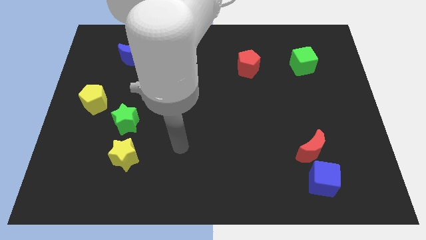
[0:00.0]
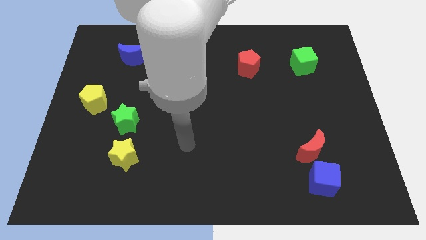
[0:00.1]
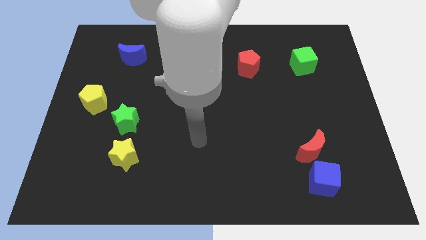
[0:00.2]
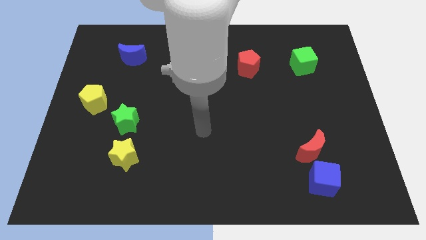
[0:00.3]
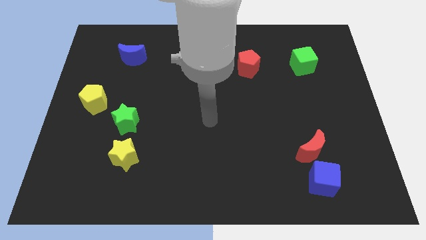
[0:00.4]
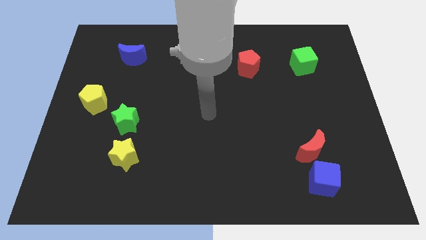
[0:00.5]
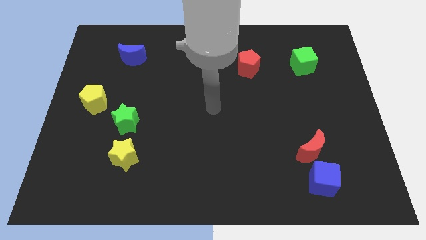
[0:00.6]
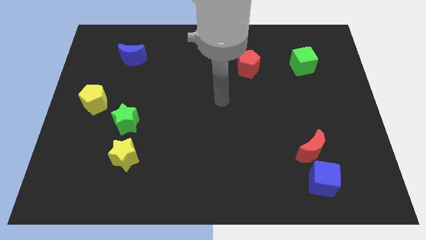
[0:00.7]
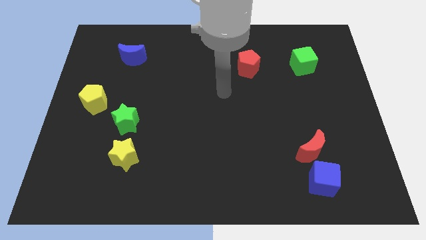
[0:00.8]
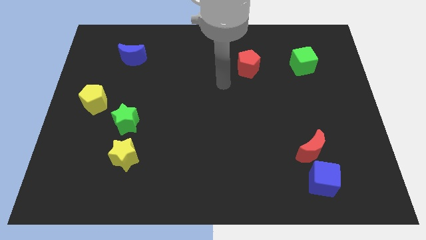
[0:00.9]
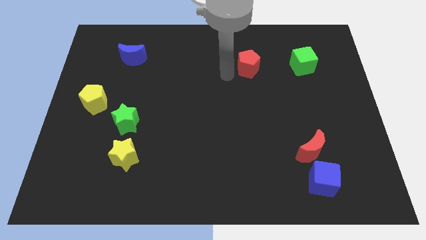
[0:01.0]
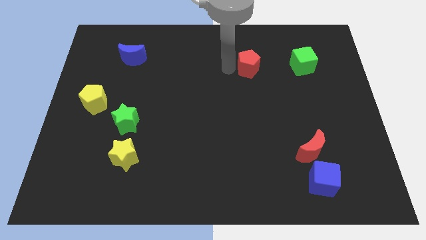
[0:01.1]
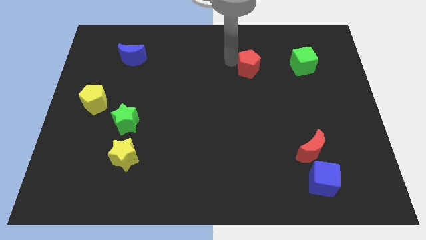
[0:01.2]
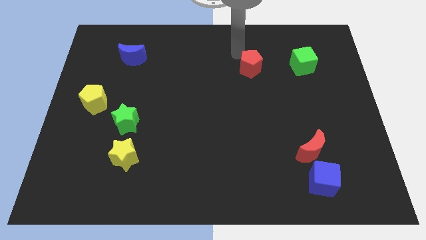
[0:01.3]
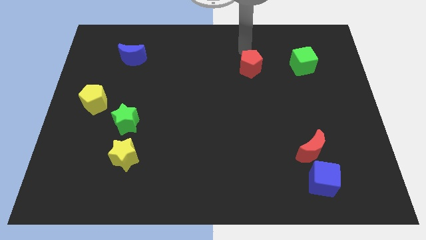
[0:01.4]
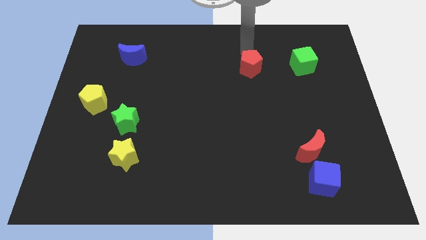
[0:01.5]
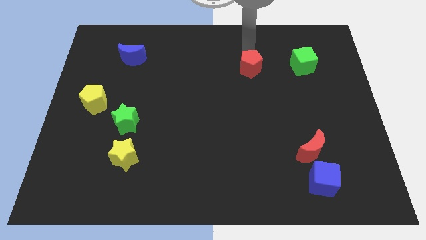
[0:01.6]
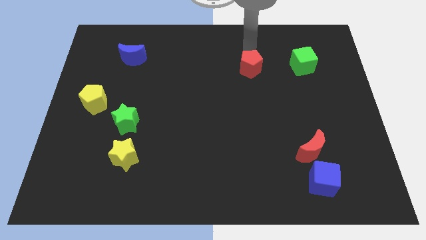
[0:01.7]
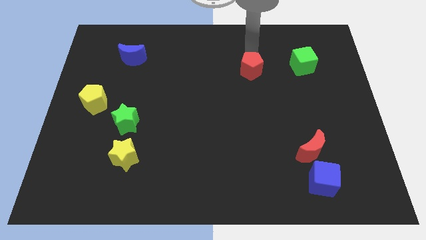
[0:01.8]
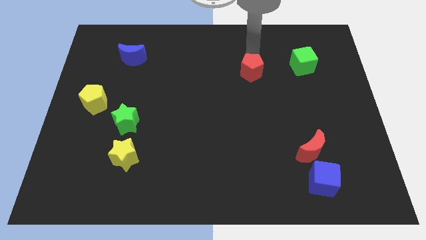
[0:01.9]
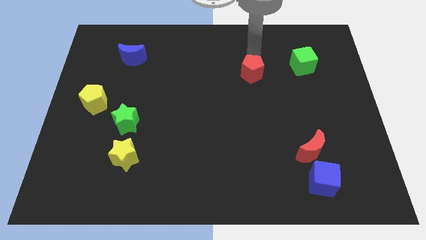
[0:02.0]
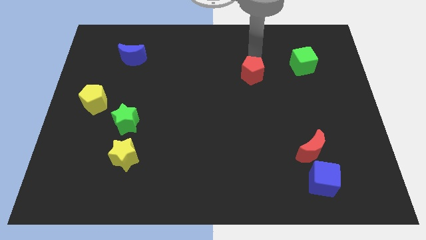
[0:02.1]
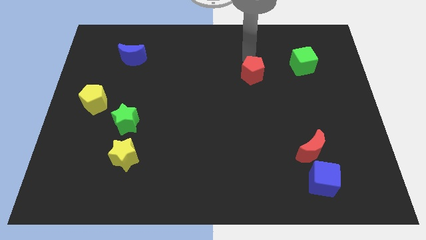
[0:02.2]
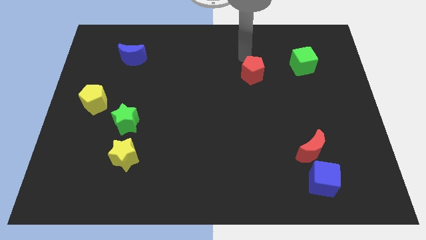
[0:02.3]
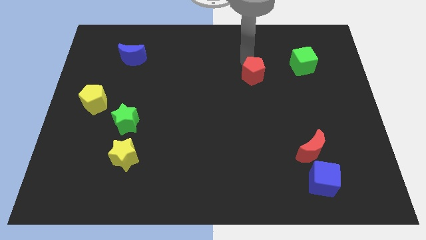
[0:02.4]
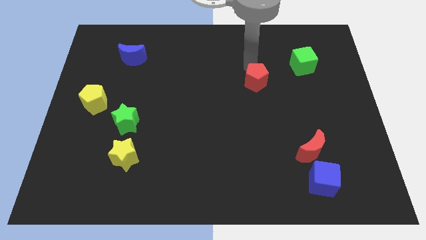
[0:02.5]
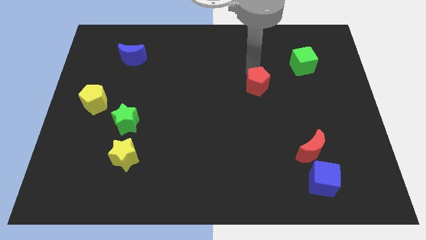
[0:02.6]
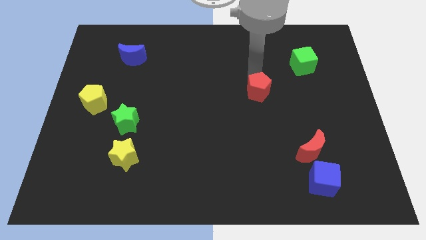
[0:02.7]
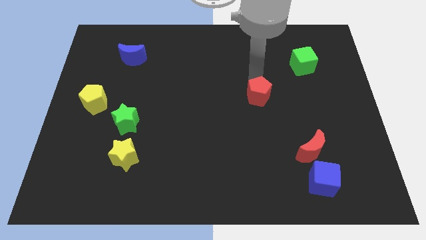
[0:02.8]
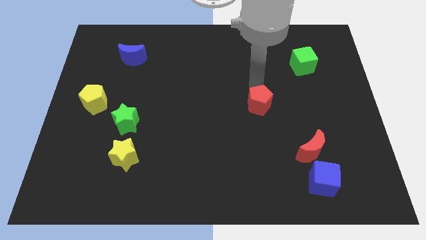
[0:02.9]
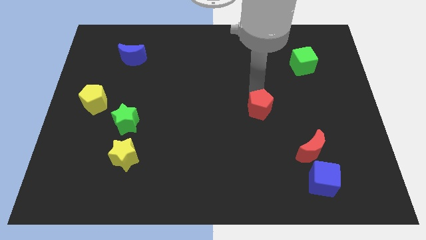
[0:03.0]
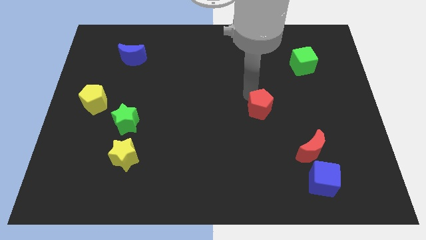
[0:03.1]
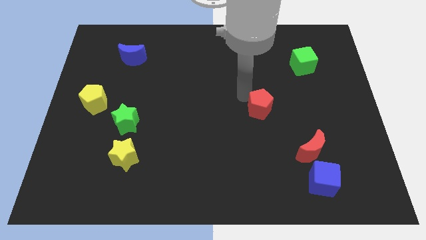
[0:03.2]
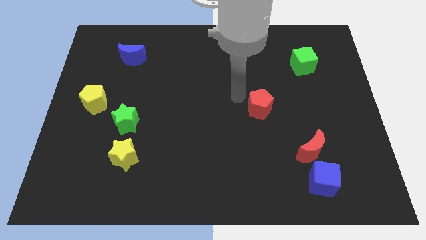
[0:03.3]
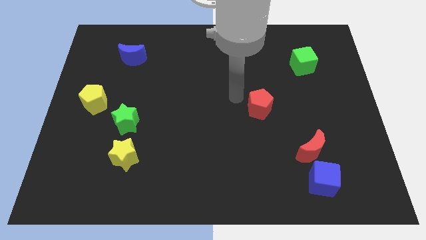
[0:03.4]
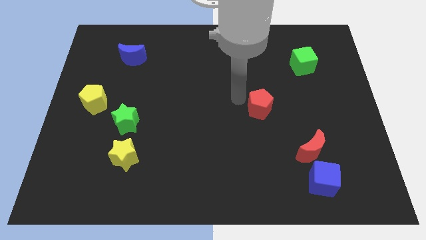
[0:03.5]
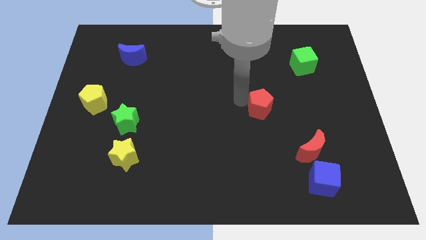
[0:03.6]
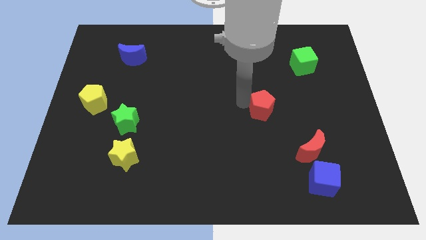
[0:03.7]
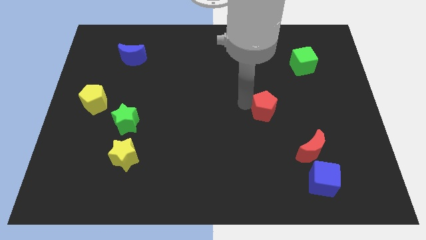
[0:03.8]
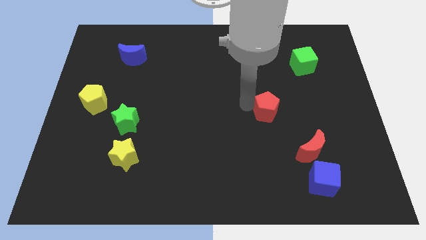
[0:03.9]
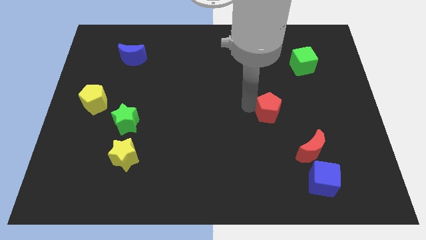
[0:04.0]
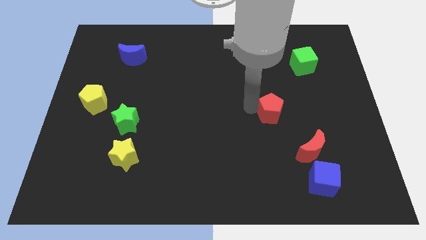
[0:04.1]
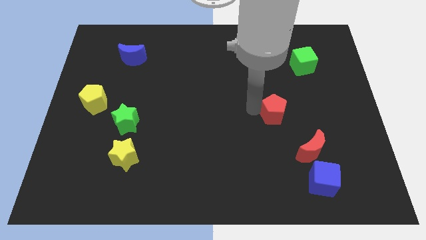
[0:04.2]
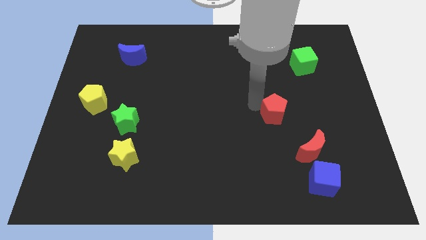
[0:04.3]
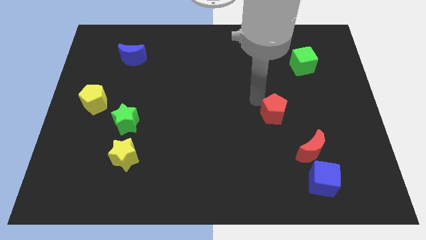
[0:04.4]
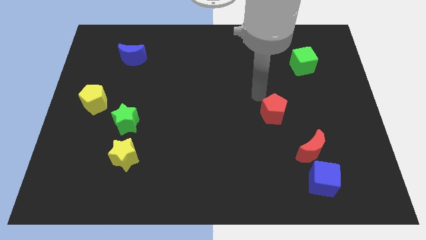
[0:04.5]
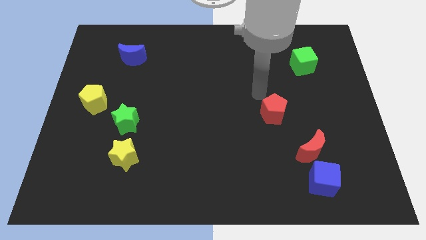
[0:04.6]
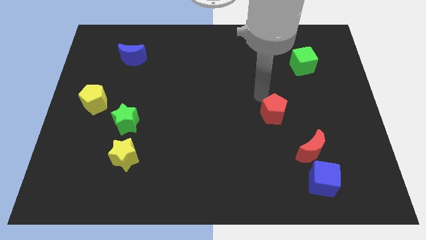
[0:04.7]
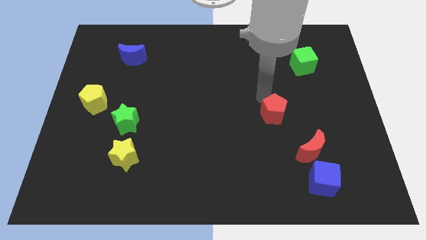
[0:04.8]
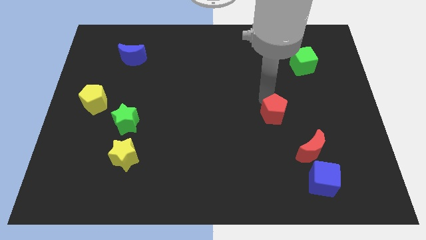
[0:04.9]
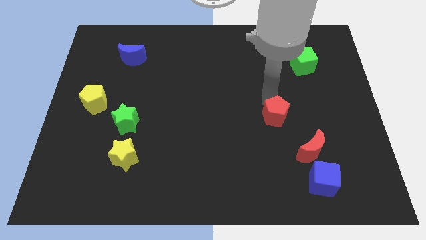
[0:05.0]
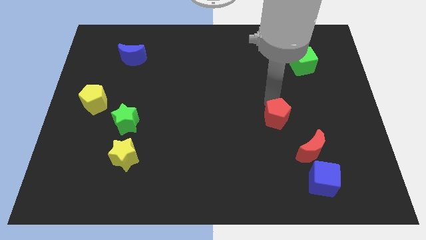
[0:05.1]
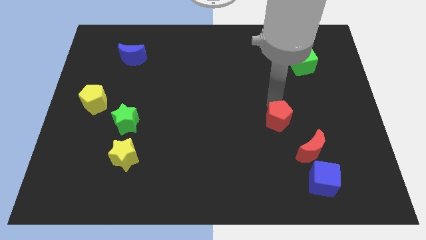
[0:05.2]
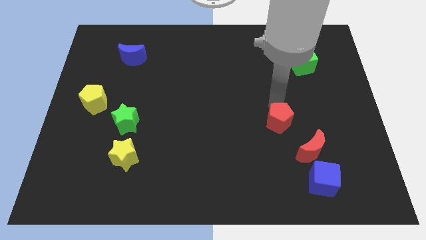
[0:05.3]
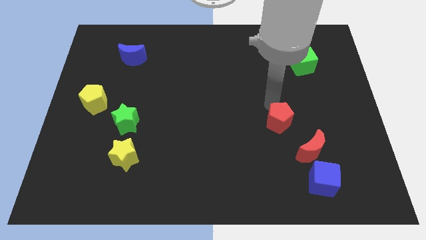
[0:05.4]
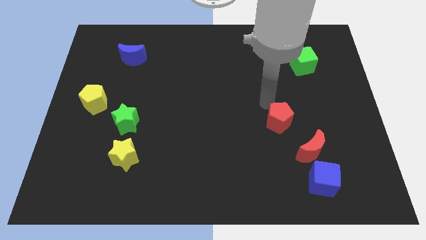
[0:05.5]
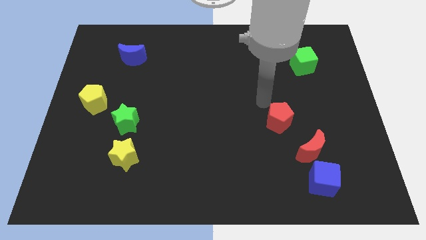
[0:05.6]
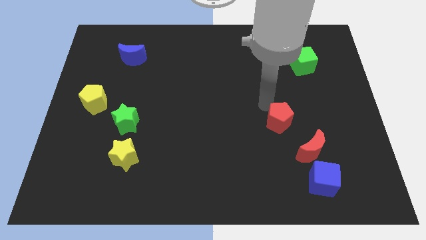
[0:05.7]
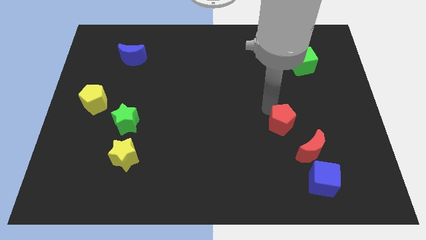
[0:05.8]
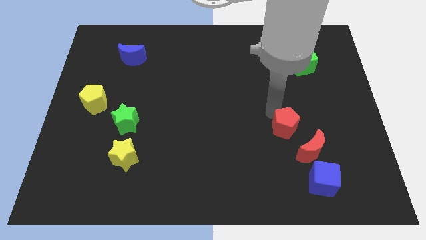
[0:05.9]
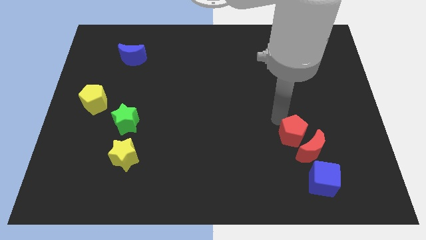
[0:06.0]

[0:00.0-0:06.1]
slide the red pentagon to the red moon
